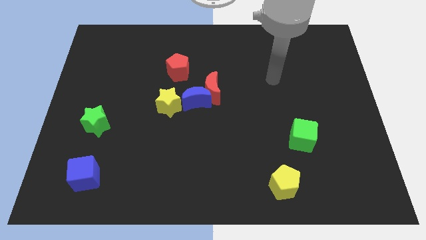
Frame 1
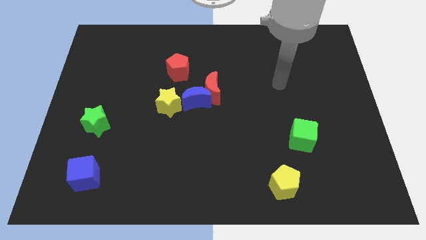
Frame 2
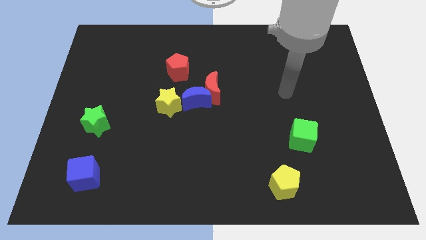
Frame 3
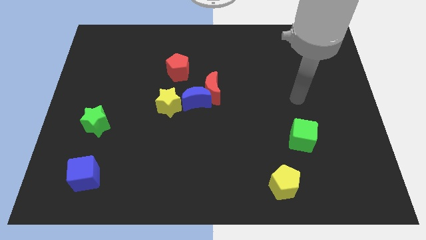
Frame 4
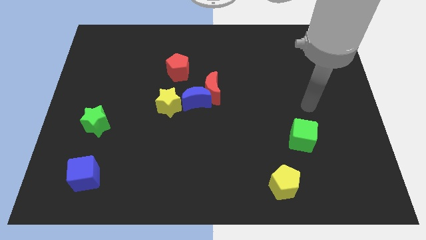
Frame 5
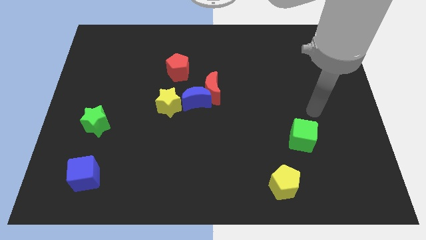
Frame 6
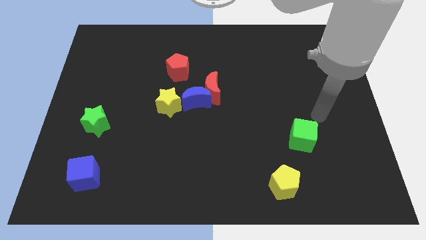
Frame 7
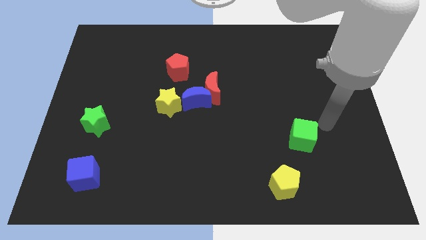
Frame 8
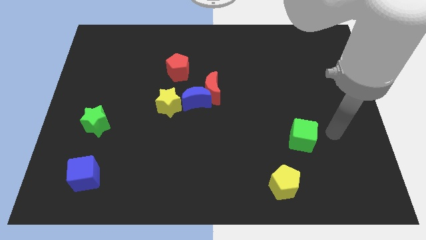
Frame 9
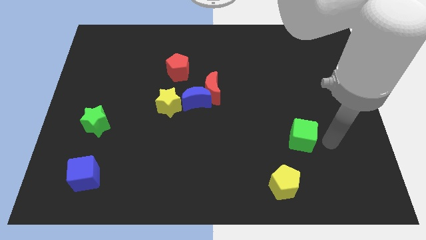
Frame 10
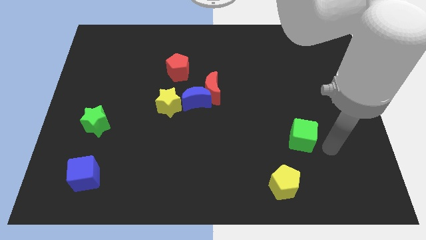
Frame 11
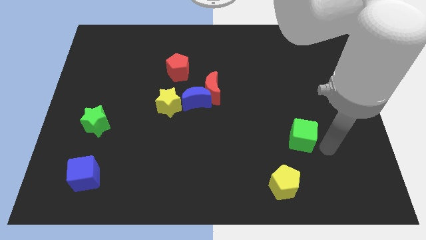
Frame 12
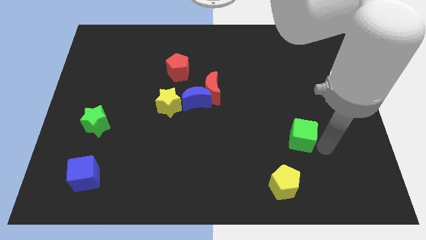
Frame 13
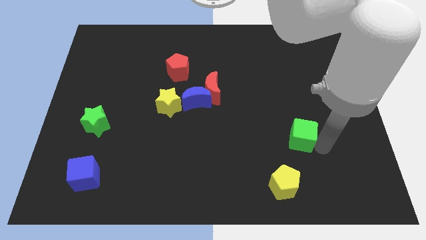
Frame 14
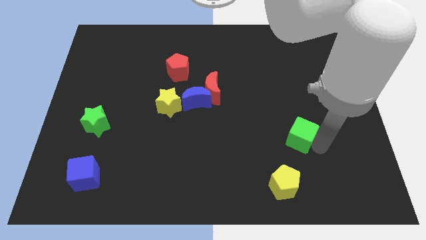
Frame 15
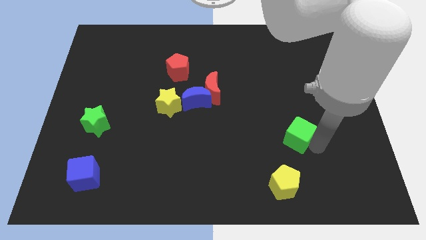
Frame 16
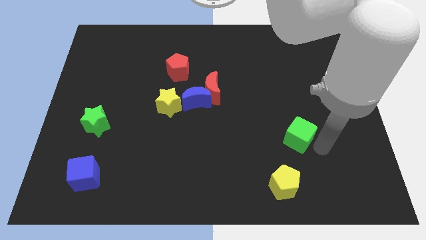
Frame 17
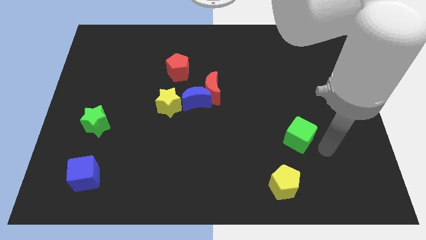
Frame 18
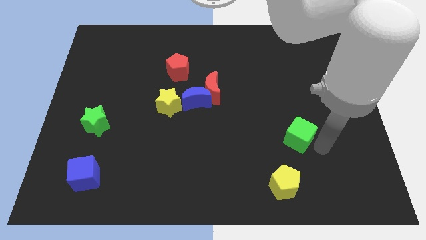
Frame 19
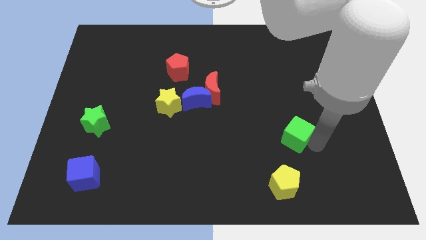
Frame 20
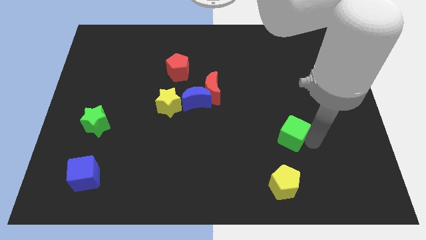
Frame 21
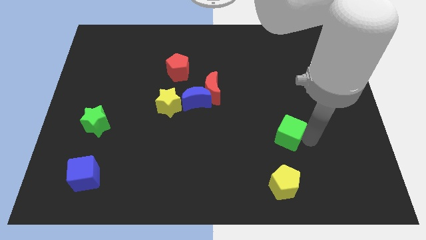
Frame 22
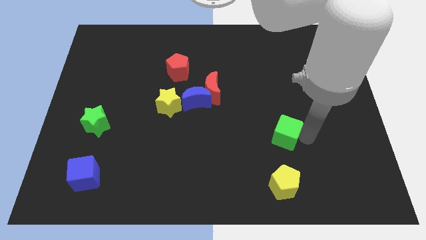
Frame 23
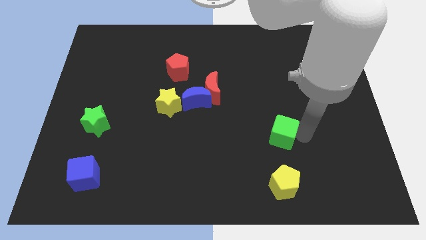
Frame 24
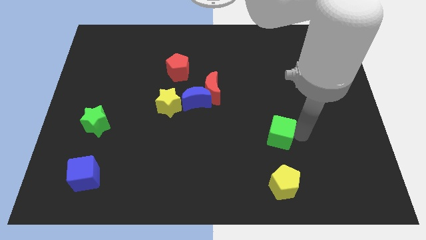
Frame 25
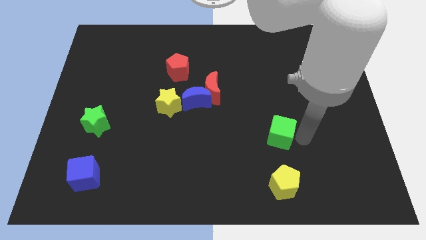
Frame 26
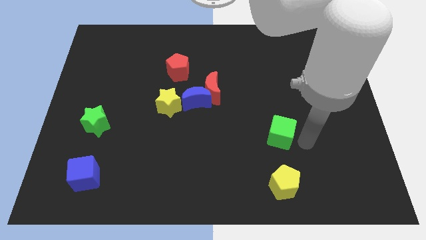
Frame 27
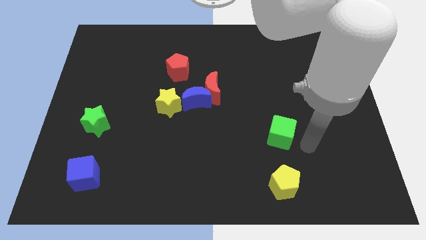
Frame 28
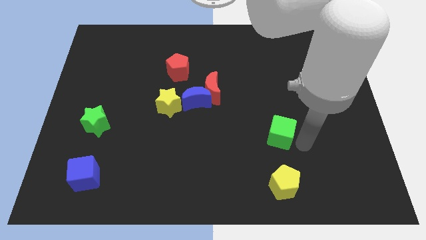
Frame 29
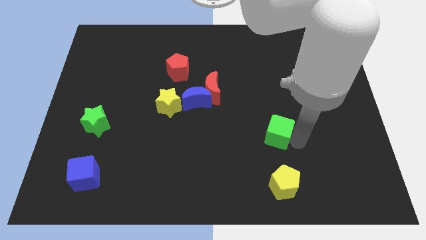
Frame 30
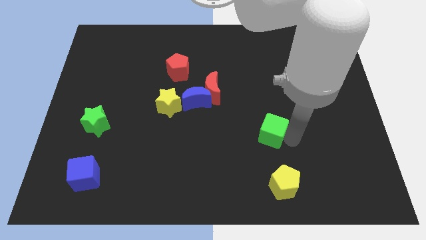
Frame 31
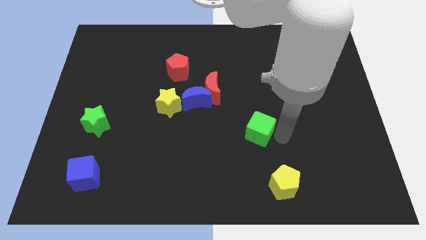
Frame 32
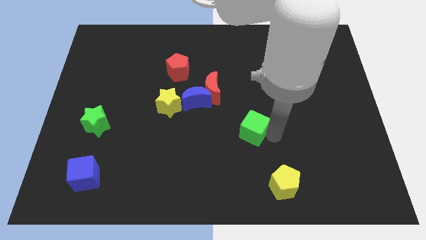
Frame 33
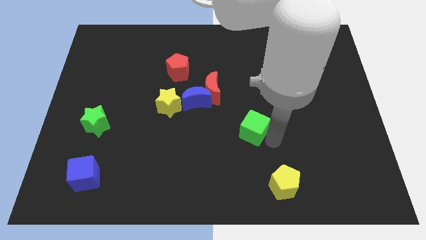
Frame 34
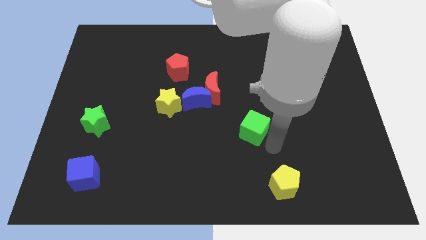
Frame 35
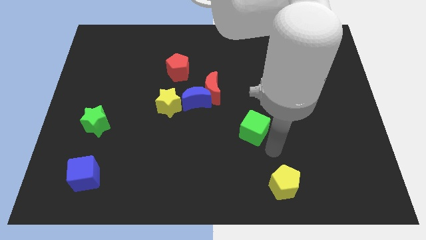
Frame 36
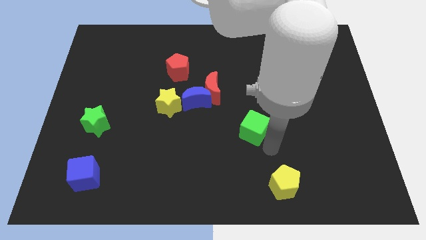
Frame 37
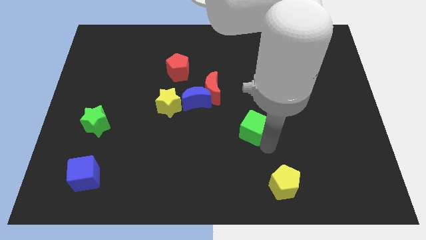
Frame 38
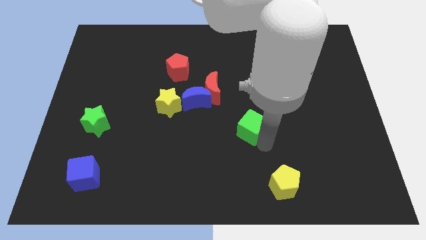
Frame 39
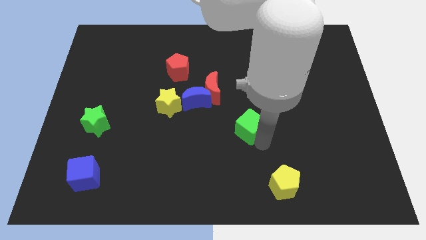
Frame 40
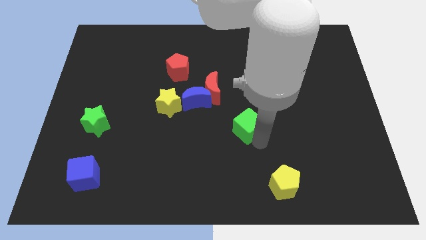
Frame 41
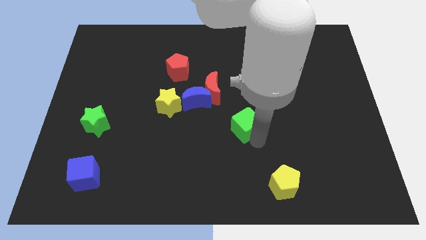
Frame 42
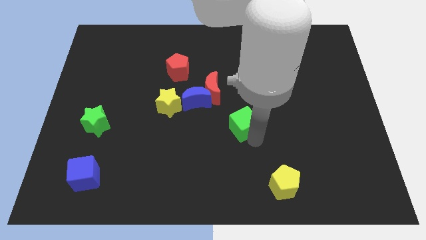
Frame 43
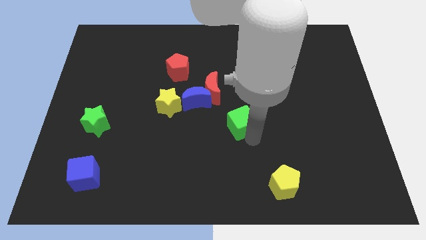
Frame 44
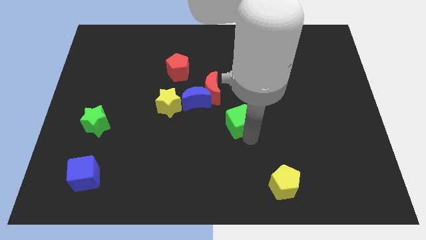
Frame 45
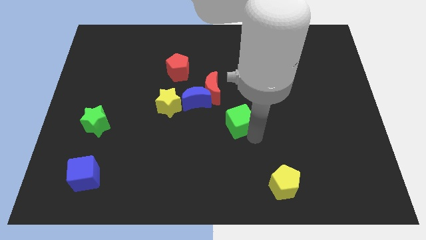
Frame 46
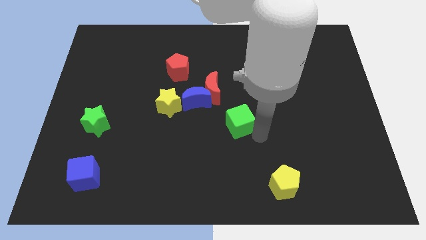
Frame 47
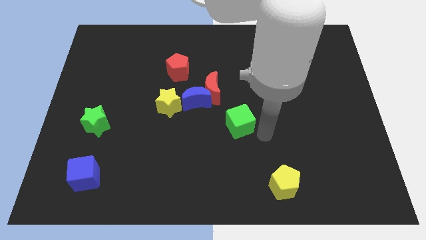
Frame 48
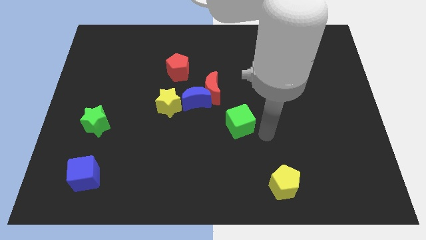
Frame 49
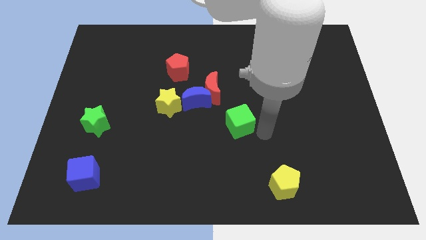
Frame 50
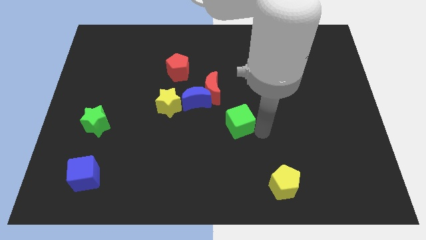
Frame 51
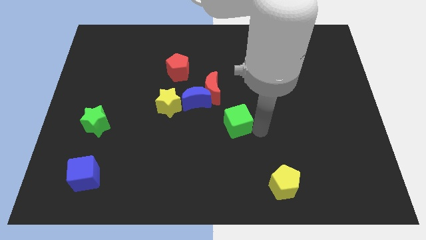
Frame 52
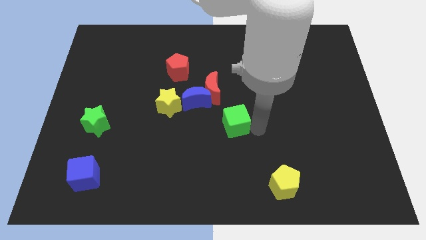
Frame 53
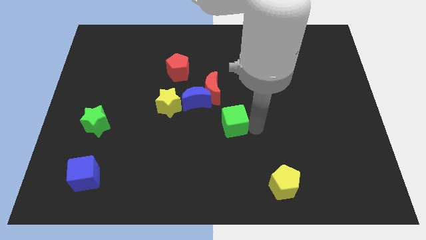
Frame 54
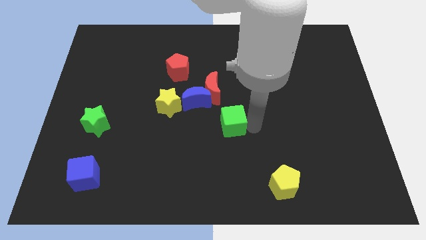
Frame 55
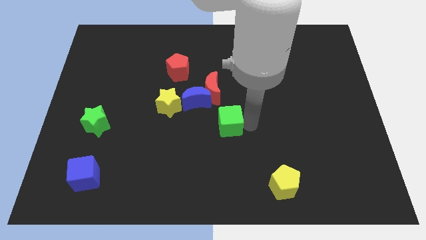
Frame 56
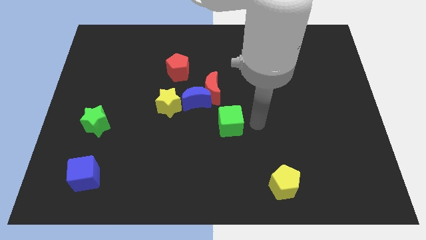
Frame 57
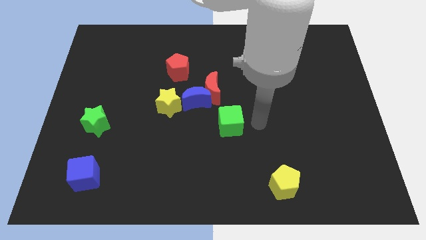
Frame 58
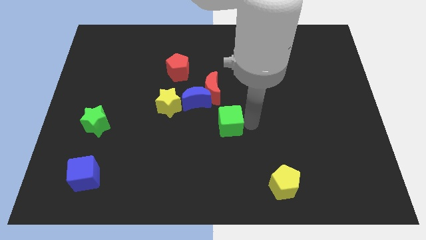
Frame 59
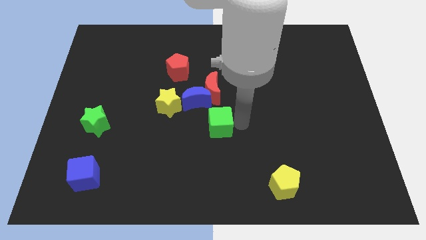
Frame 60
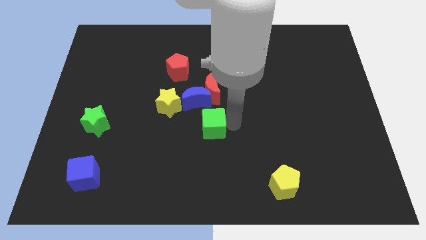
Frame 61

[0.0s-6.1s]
push the green cube to the bottom right of the yellow star
